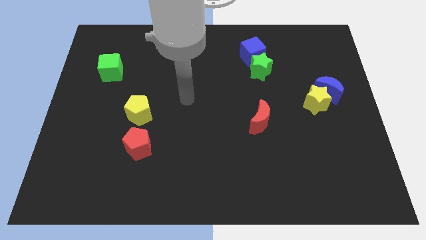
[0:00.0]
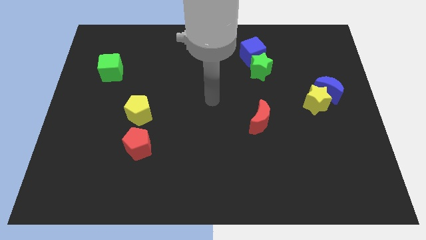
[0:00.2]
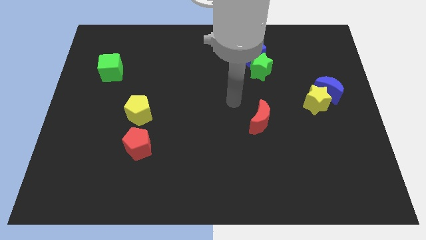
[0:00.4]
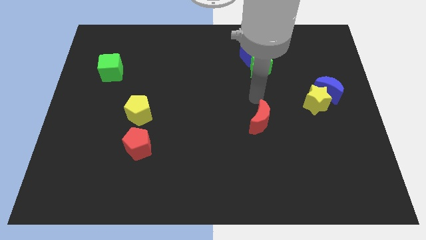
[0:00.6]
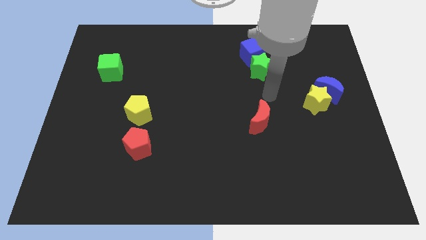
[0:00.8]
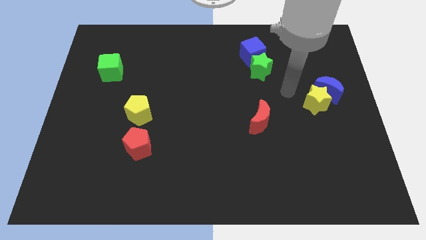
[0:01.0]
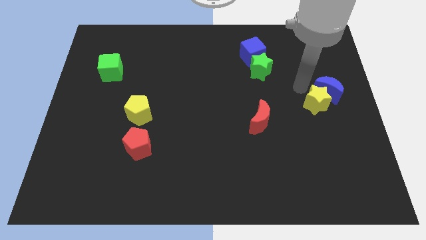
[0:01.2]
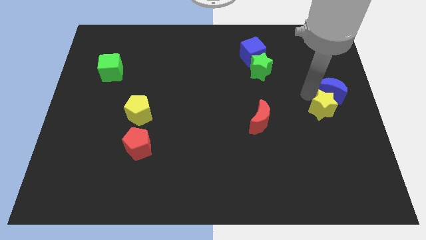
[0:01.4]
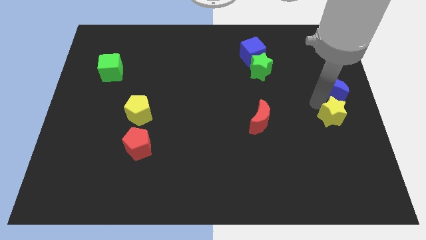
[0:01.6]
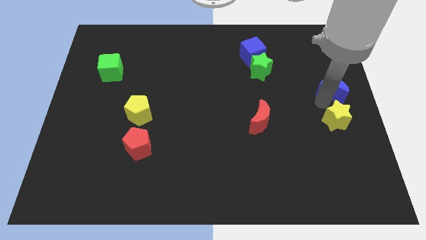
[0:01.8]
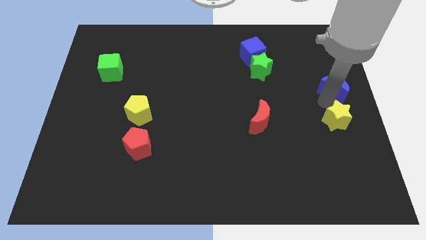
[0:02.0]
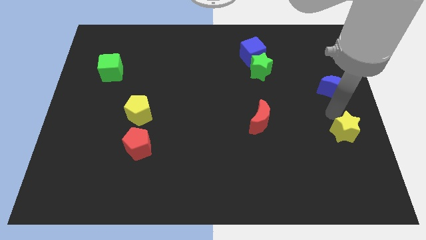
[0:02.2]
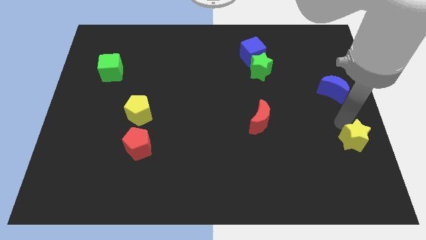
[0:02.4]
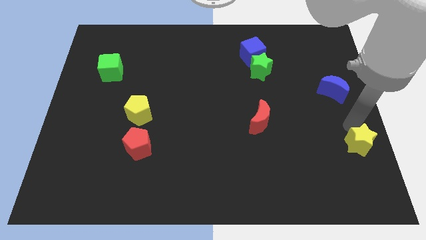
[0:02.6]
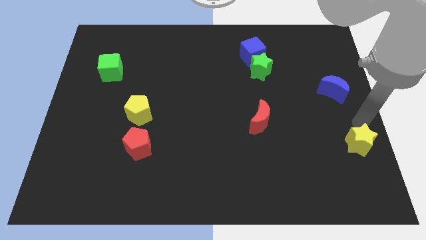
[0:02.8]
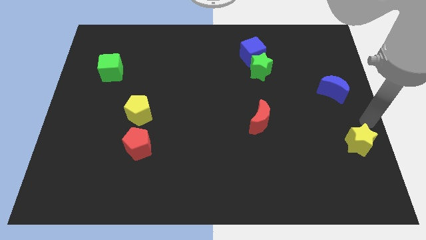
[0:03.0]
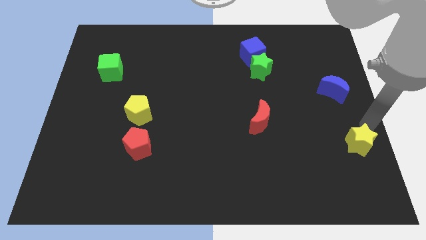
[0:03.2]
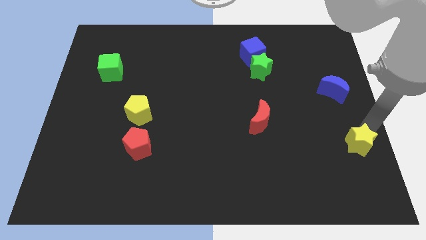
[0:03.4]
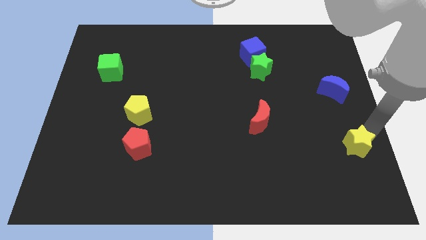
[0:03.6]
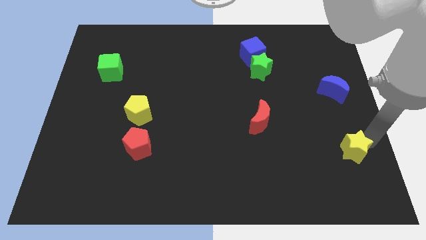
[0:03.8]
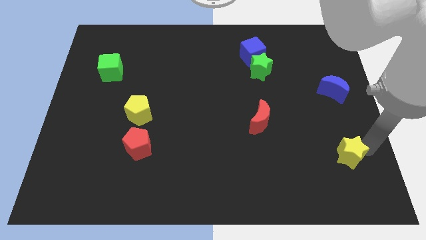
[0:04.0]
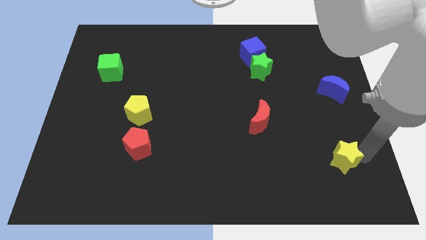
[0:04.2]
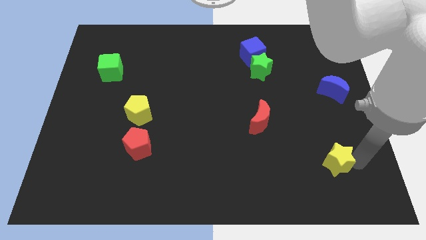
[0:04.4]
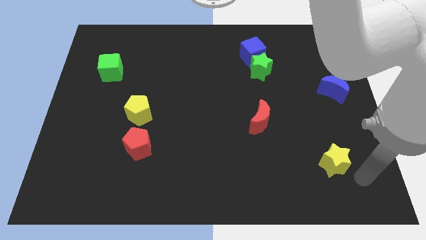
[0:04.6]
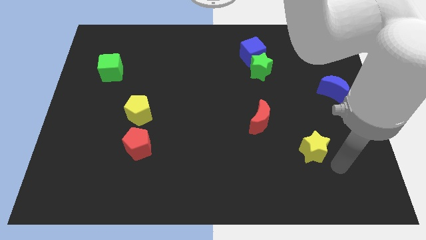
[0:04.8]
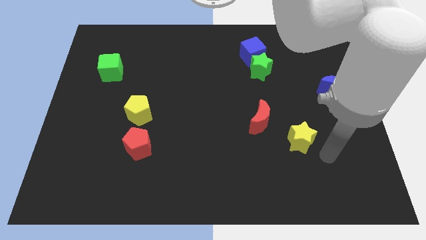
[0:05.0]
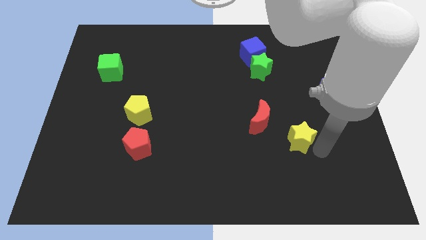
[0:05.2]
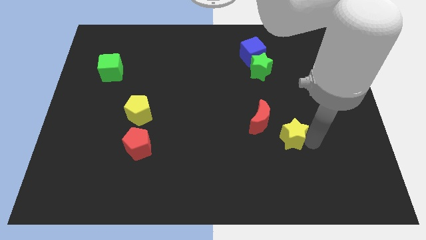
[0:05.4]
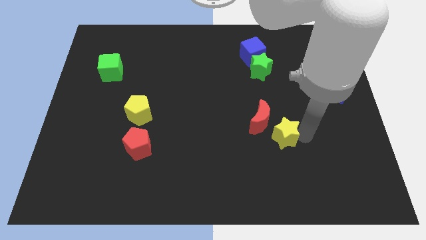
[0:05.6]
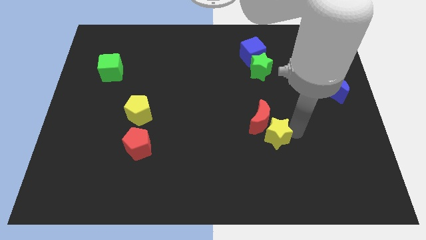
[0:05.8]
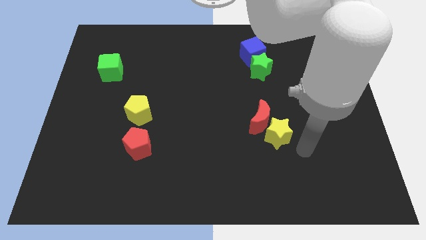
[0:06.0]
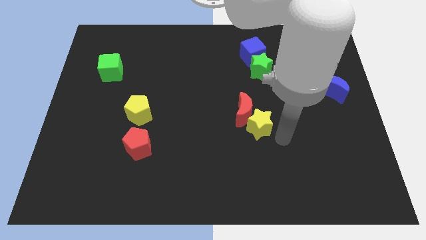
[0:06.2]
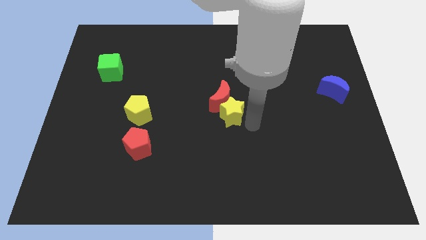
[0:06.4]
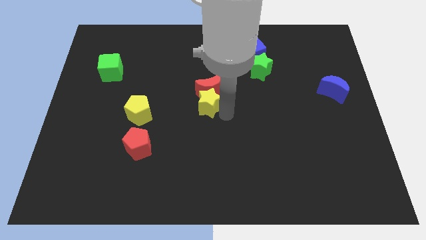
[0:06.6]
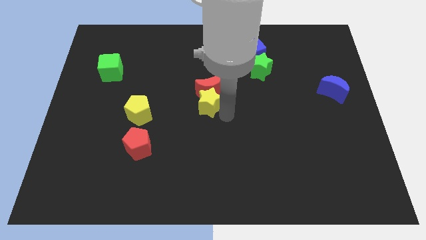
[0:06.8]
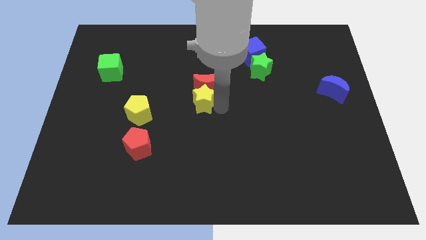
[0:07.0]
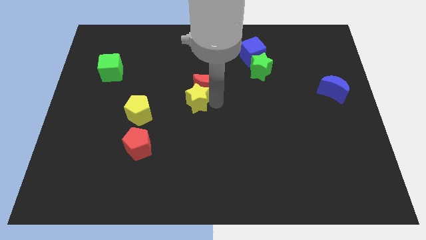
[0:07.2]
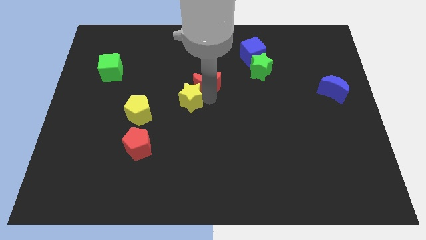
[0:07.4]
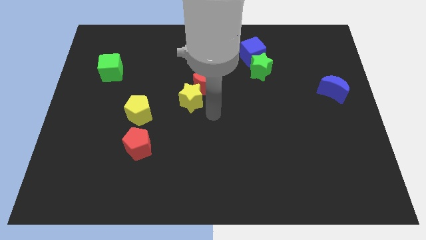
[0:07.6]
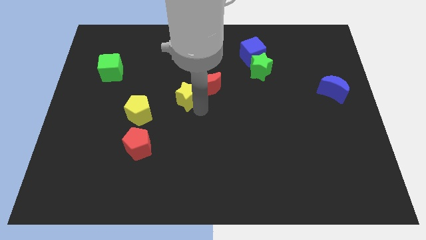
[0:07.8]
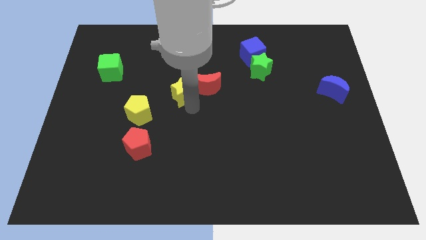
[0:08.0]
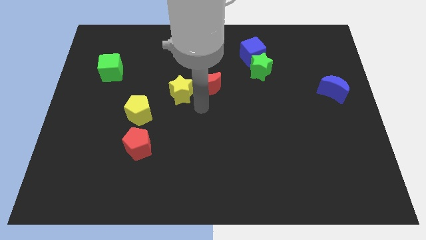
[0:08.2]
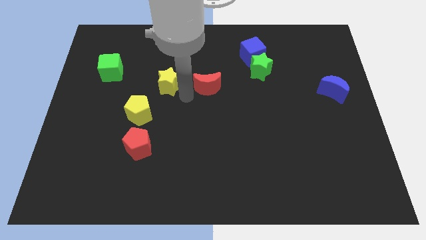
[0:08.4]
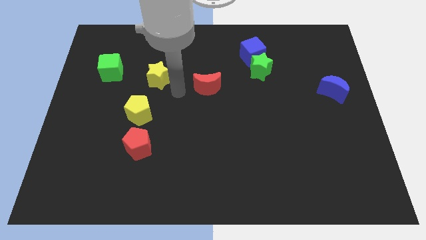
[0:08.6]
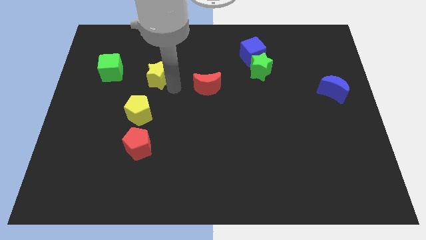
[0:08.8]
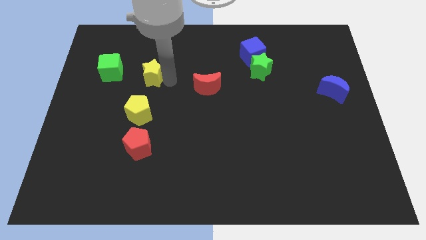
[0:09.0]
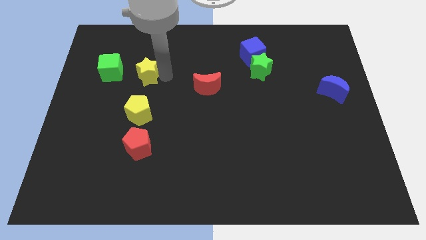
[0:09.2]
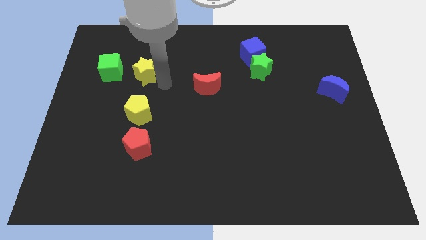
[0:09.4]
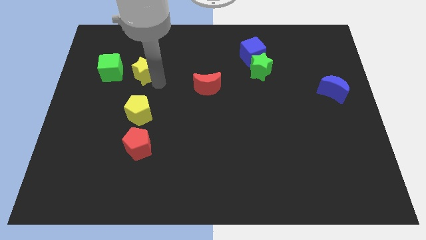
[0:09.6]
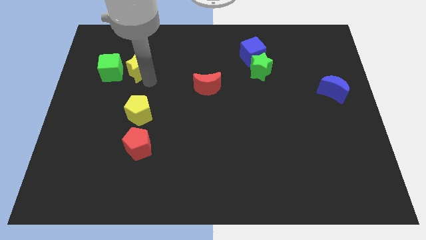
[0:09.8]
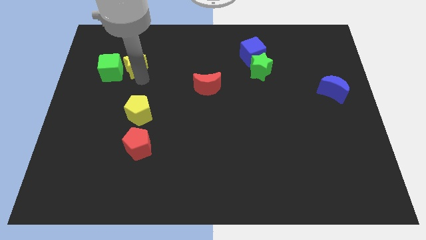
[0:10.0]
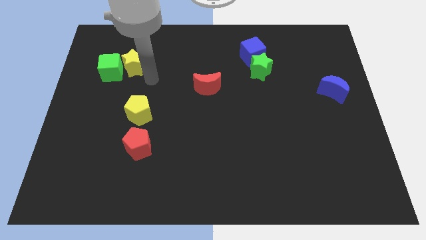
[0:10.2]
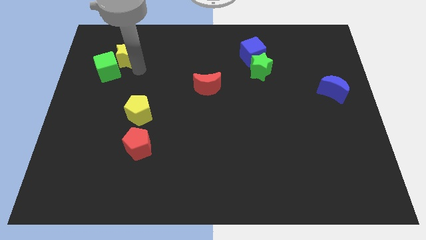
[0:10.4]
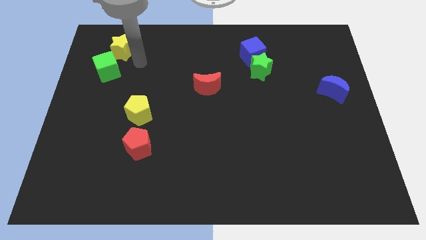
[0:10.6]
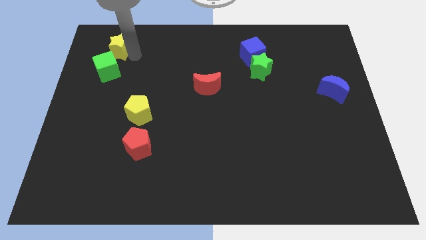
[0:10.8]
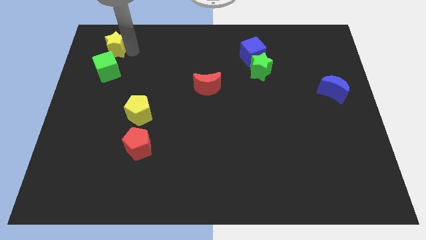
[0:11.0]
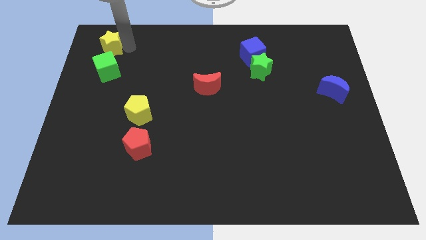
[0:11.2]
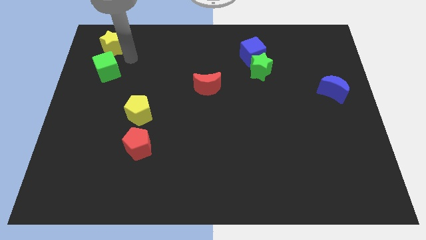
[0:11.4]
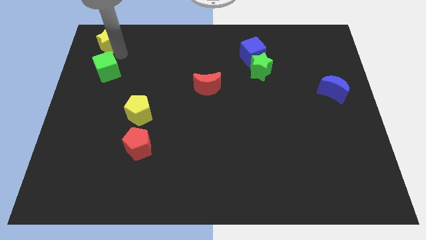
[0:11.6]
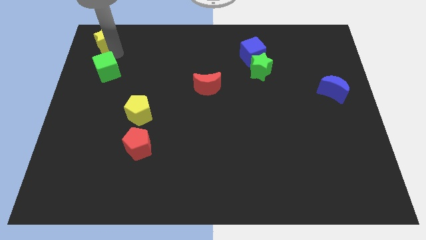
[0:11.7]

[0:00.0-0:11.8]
push the yellow star to the top left of the board
